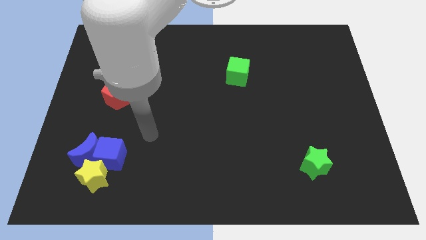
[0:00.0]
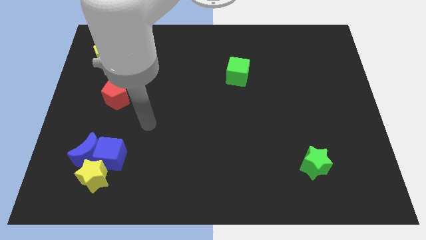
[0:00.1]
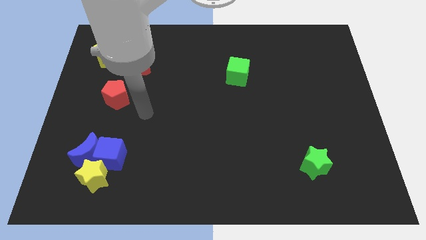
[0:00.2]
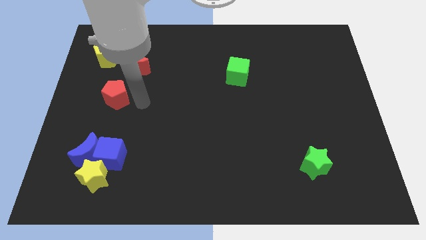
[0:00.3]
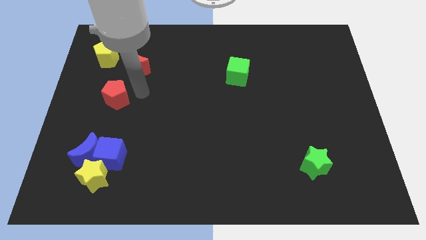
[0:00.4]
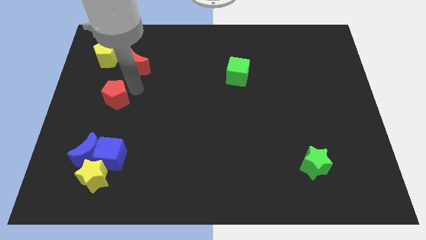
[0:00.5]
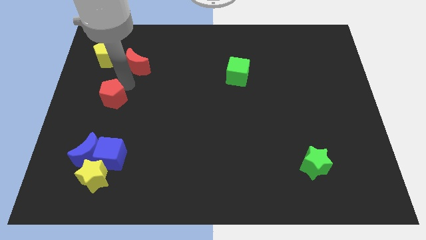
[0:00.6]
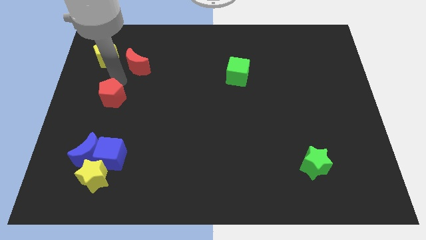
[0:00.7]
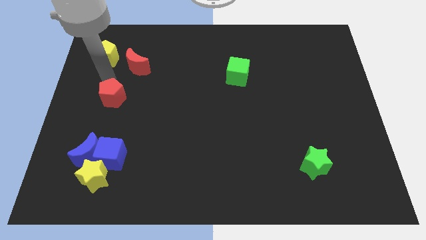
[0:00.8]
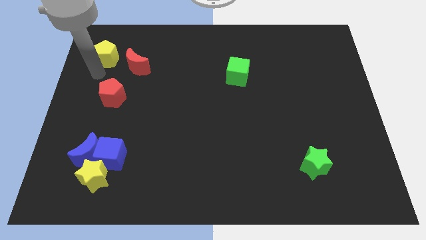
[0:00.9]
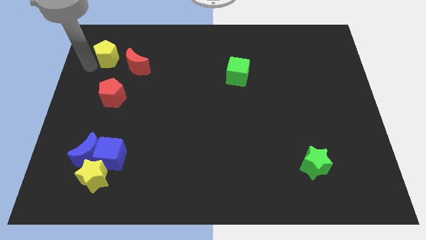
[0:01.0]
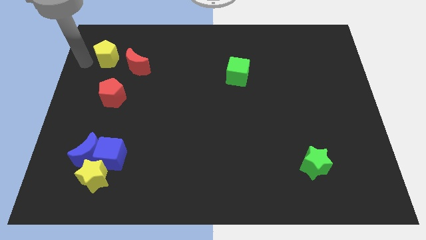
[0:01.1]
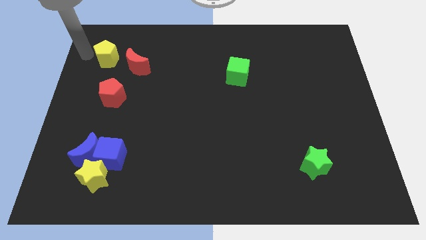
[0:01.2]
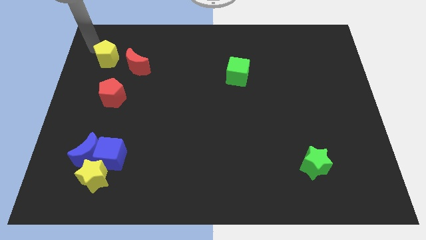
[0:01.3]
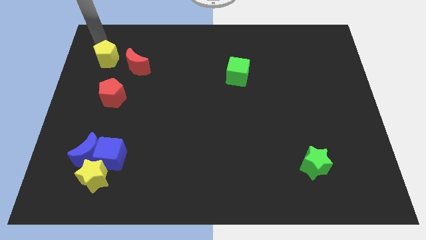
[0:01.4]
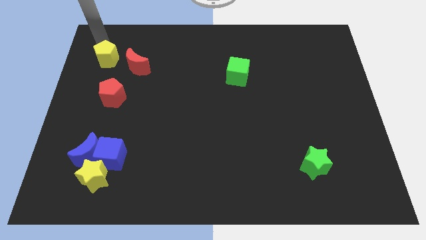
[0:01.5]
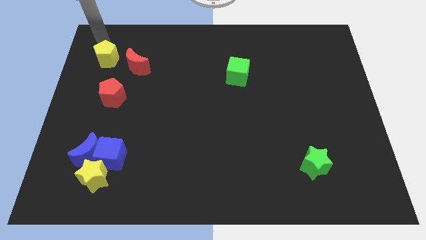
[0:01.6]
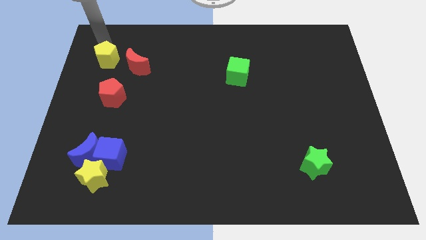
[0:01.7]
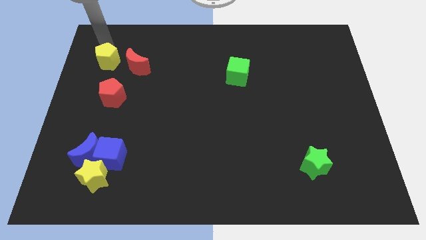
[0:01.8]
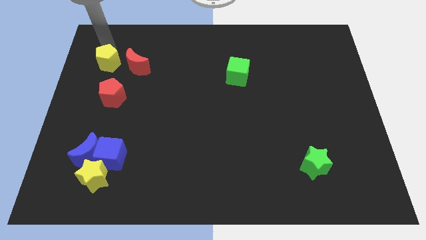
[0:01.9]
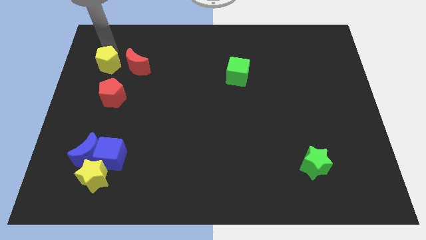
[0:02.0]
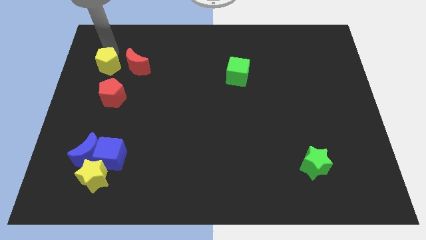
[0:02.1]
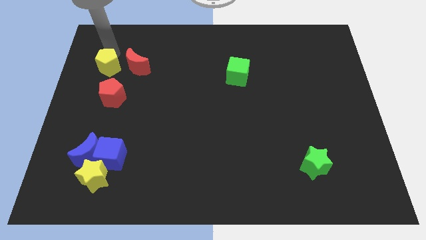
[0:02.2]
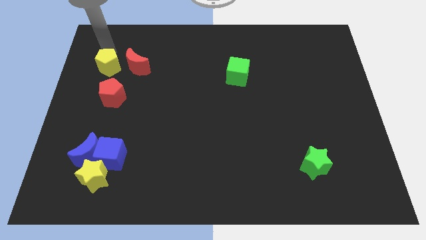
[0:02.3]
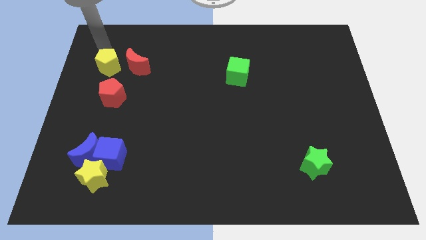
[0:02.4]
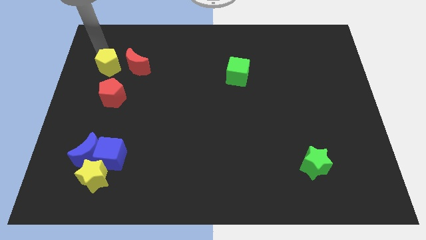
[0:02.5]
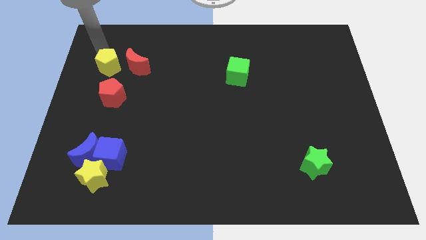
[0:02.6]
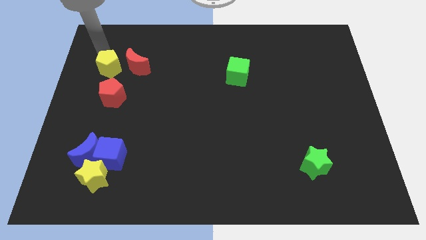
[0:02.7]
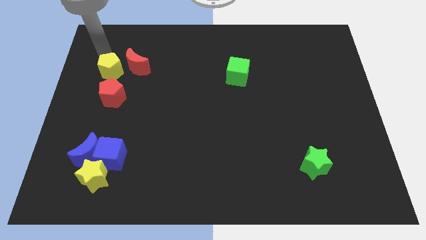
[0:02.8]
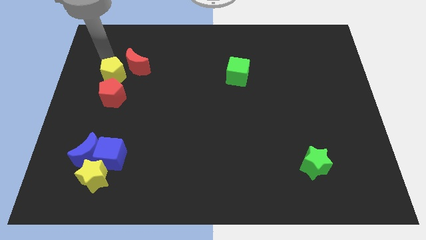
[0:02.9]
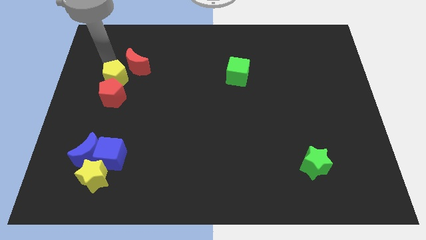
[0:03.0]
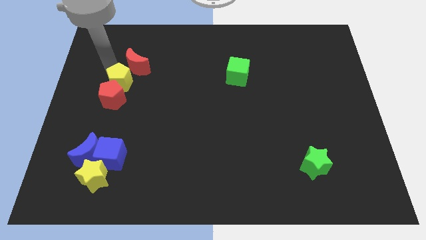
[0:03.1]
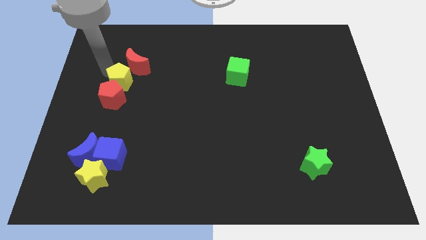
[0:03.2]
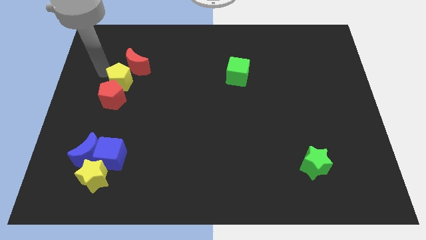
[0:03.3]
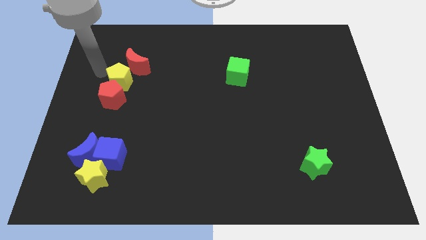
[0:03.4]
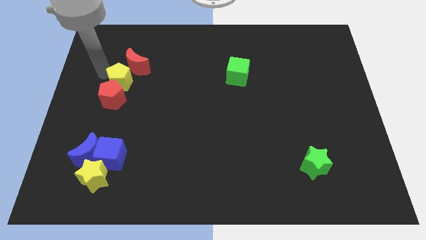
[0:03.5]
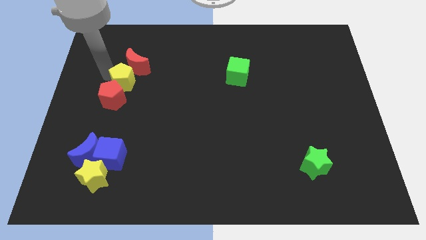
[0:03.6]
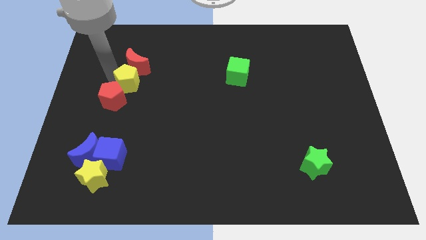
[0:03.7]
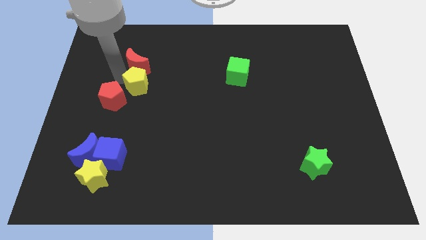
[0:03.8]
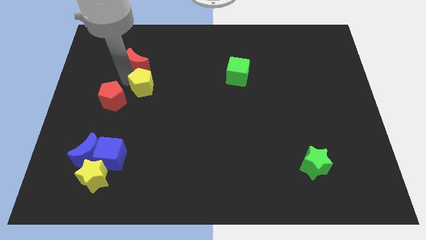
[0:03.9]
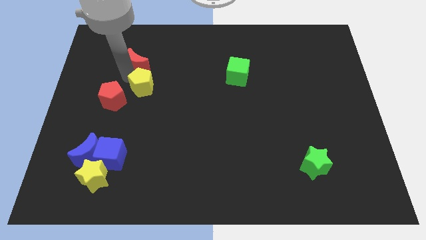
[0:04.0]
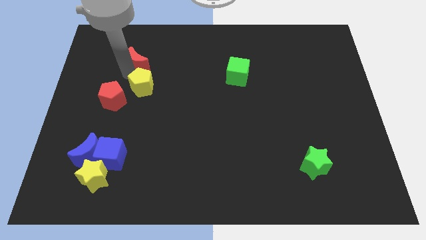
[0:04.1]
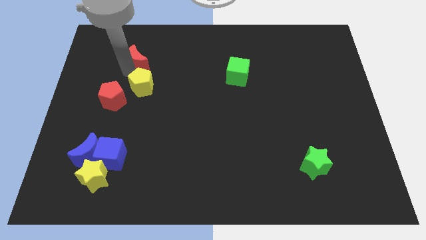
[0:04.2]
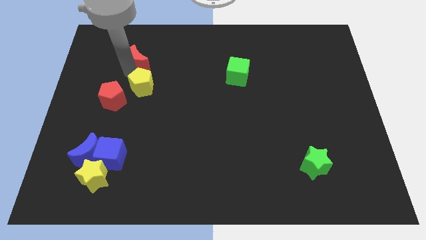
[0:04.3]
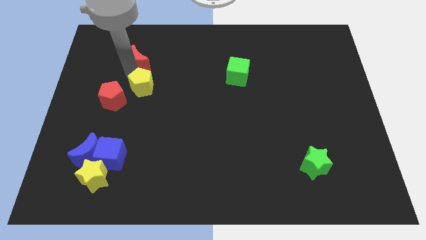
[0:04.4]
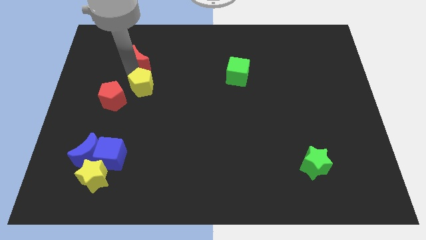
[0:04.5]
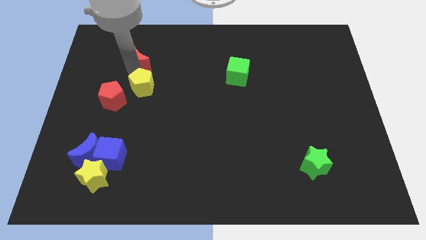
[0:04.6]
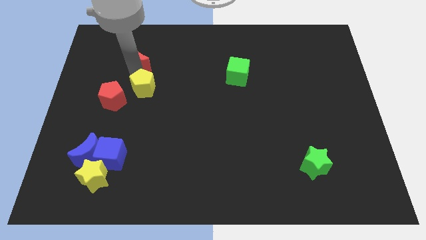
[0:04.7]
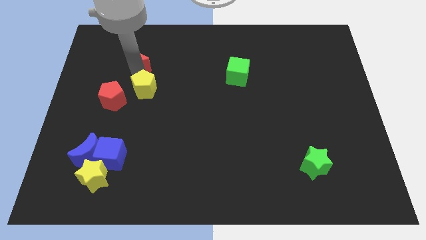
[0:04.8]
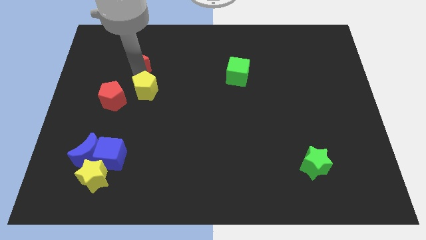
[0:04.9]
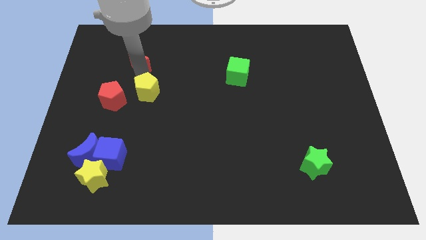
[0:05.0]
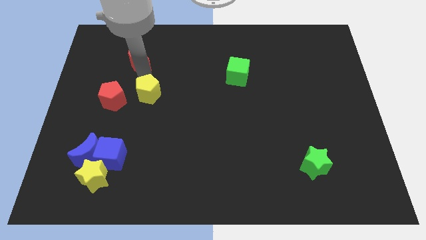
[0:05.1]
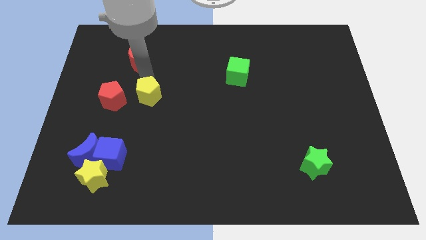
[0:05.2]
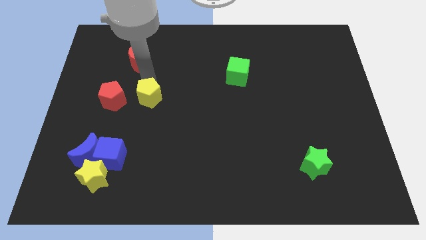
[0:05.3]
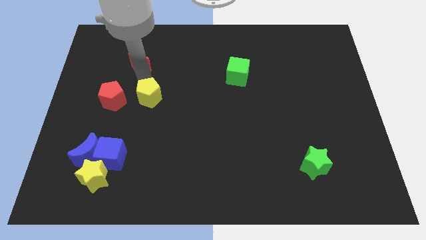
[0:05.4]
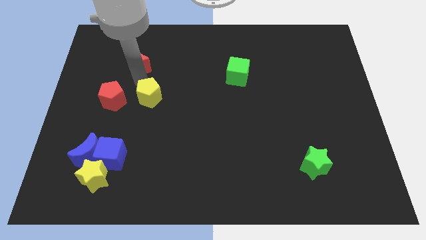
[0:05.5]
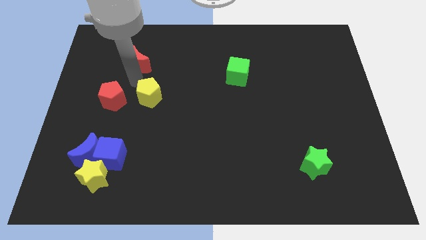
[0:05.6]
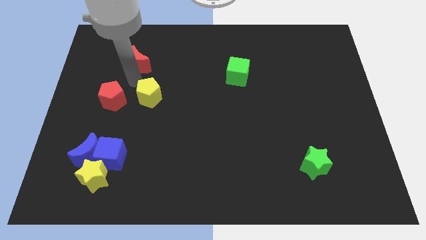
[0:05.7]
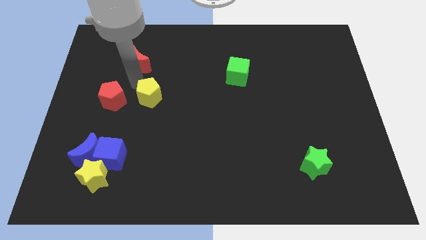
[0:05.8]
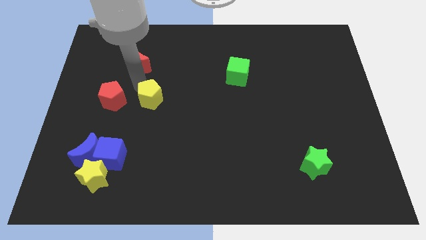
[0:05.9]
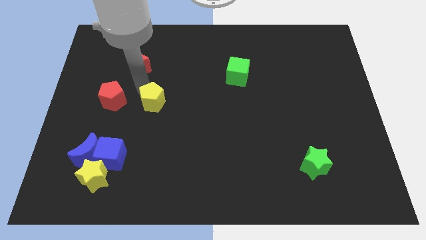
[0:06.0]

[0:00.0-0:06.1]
slide the yellow pentagon down and to the right

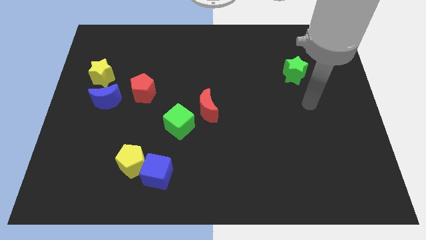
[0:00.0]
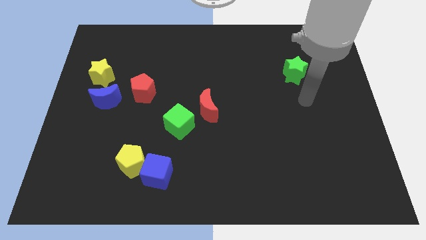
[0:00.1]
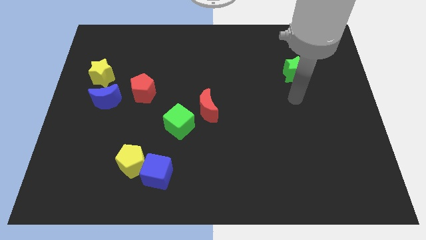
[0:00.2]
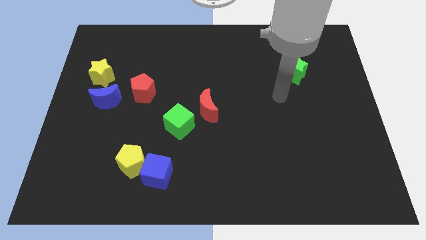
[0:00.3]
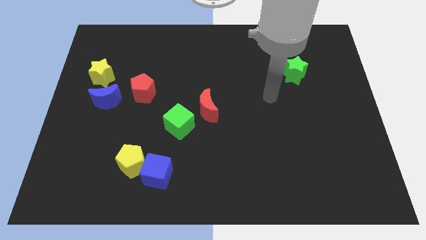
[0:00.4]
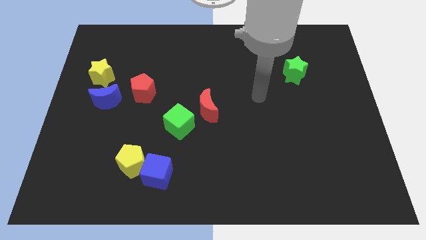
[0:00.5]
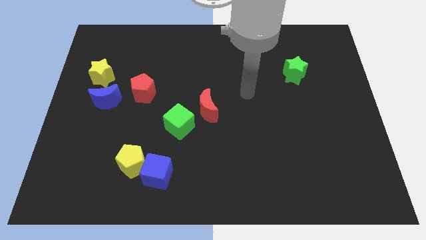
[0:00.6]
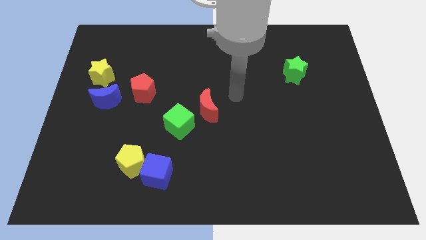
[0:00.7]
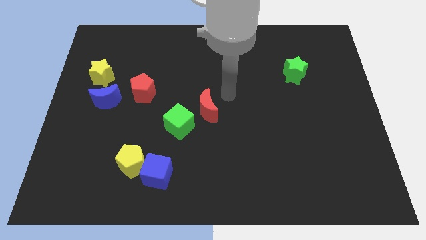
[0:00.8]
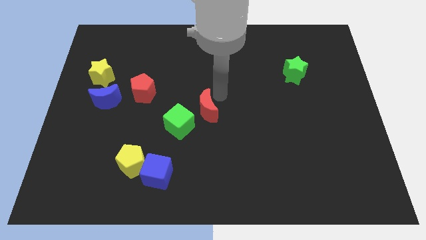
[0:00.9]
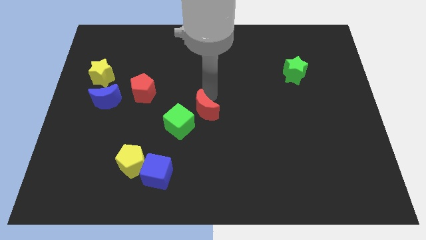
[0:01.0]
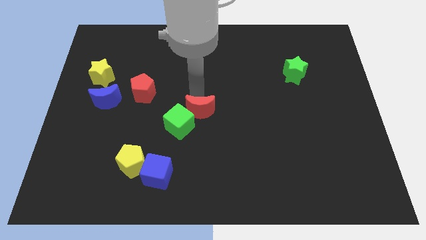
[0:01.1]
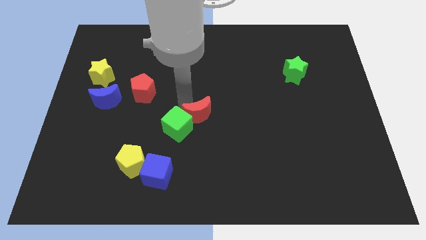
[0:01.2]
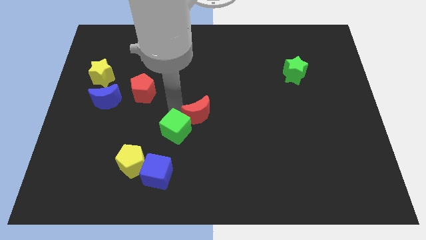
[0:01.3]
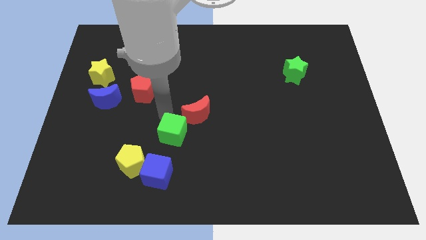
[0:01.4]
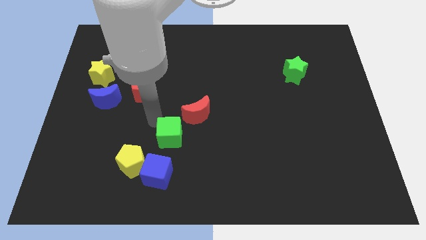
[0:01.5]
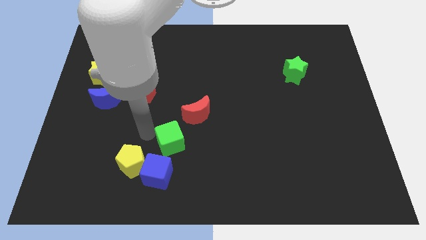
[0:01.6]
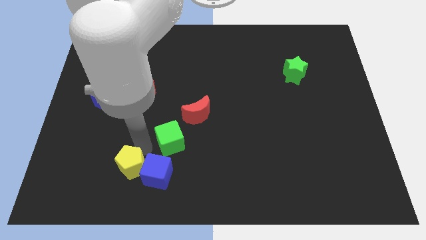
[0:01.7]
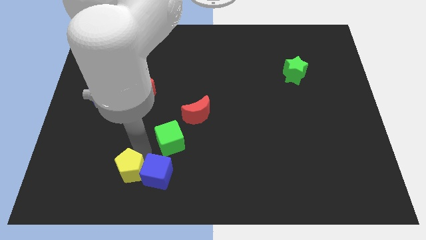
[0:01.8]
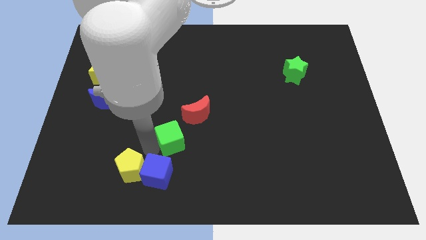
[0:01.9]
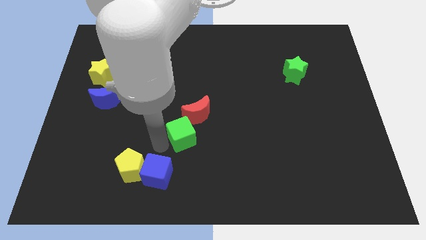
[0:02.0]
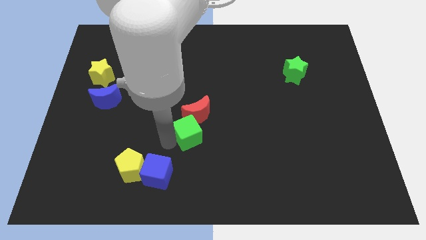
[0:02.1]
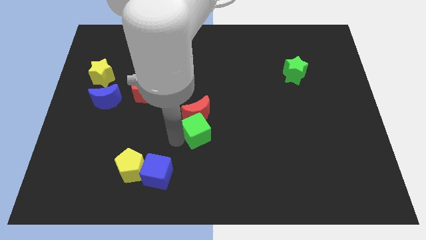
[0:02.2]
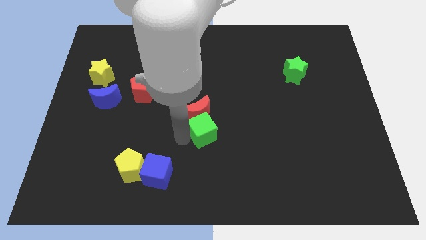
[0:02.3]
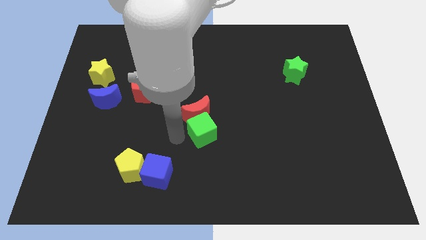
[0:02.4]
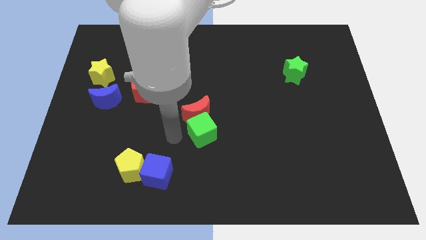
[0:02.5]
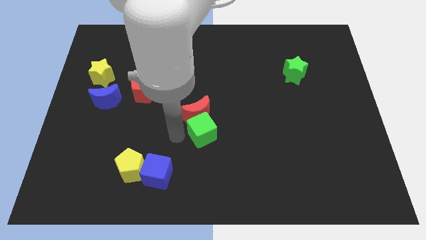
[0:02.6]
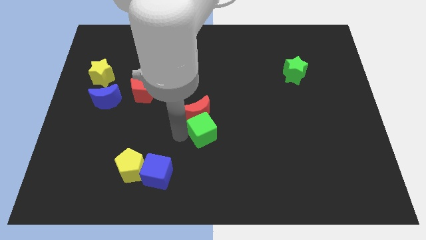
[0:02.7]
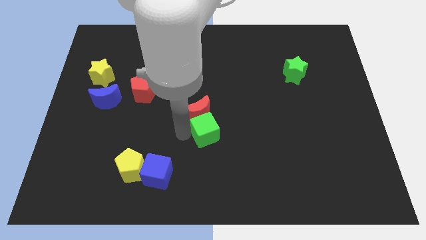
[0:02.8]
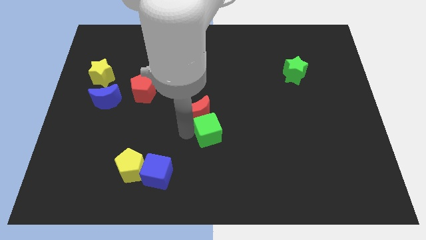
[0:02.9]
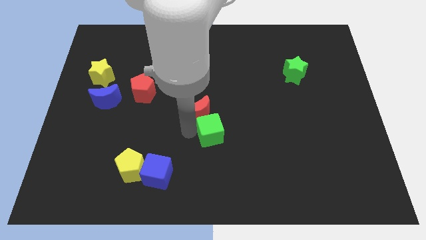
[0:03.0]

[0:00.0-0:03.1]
slightly move the green cube to the right
